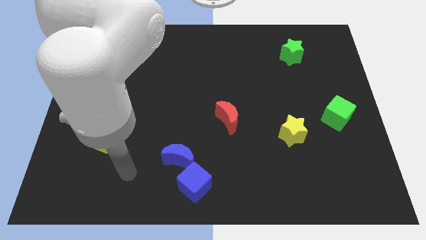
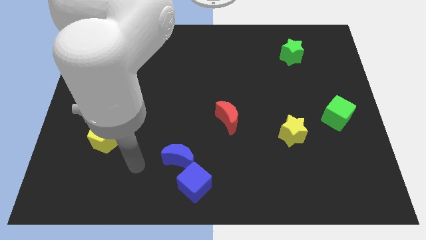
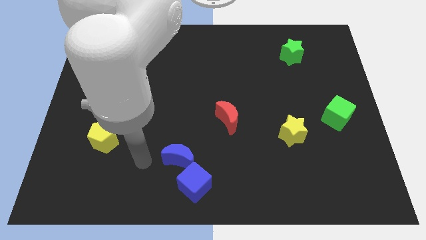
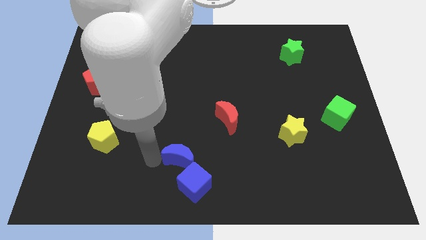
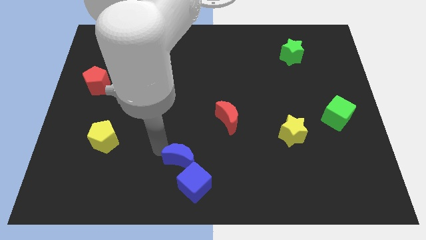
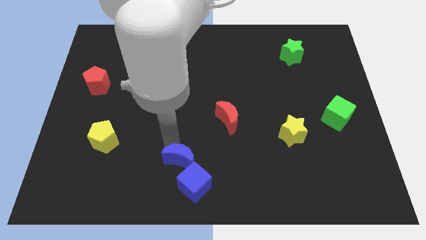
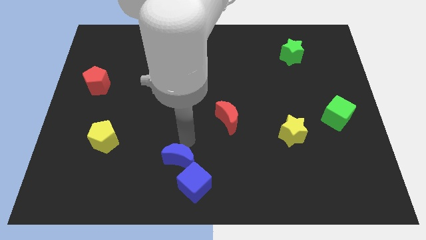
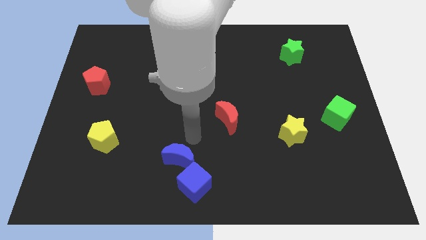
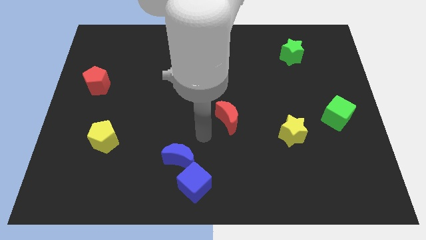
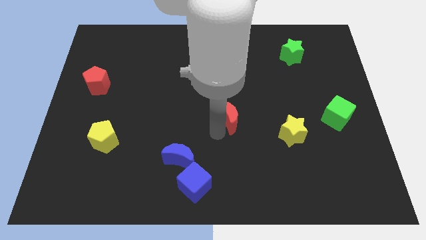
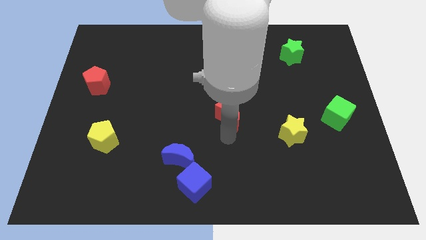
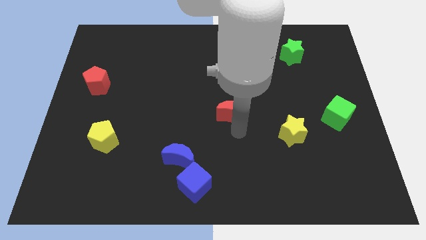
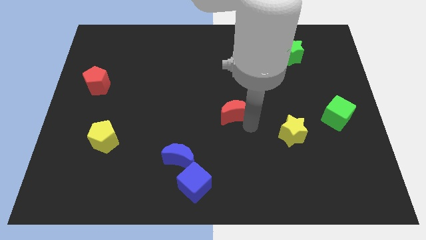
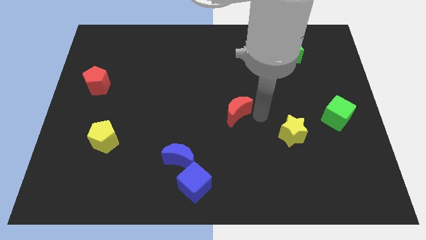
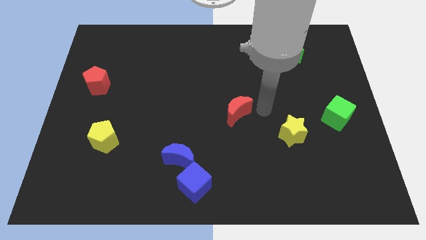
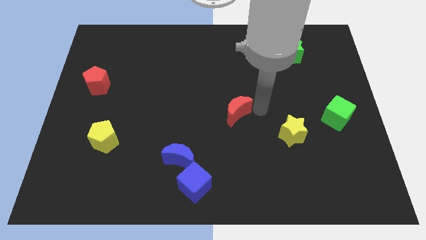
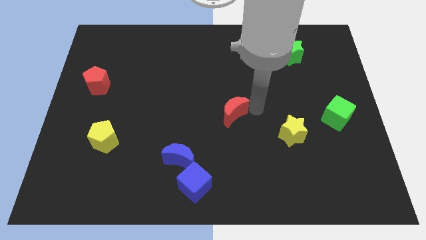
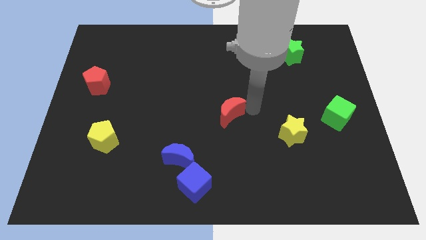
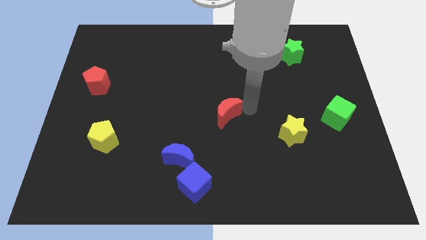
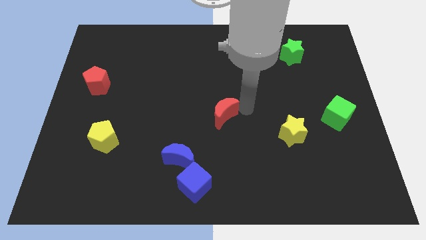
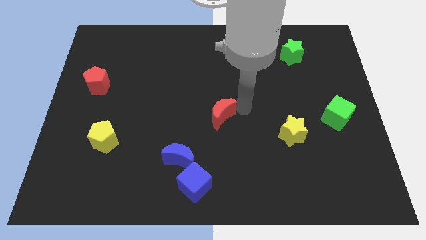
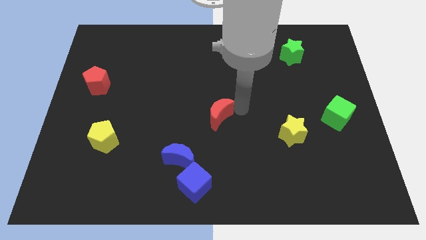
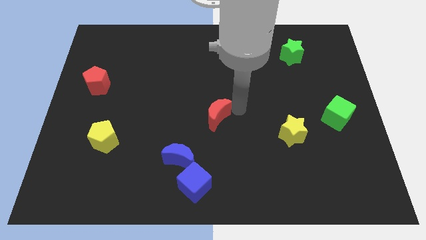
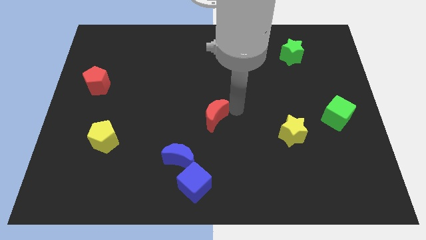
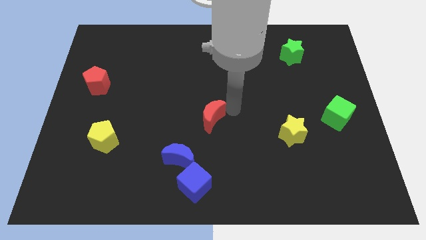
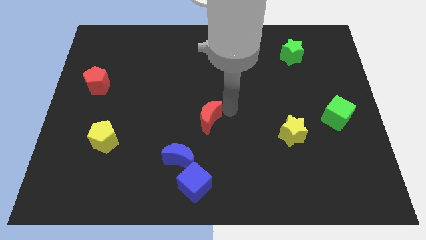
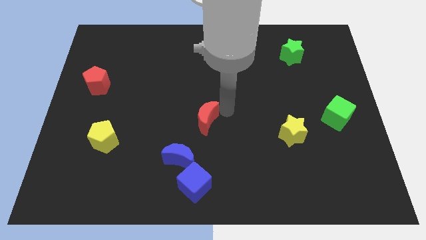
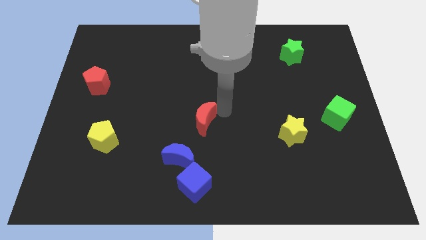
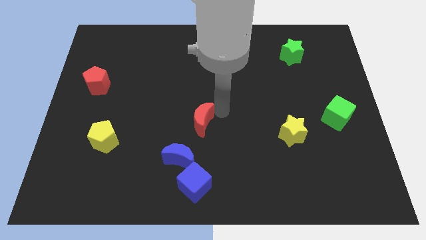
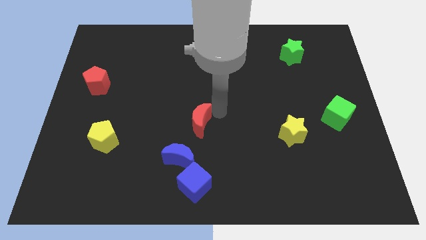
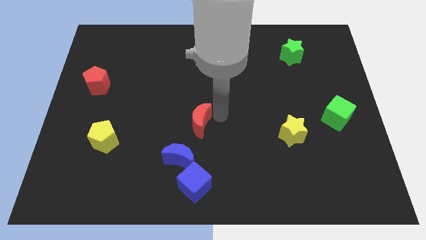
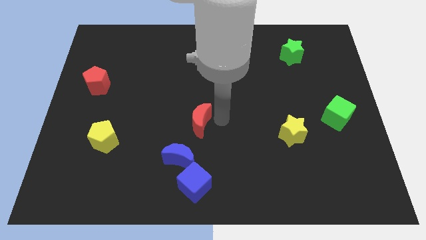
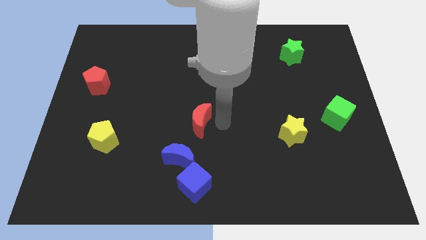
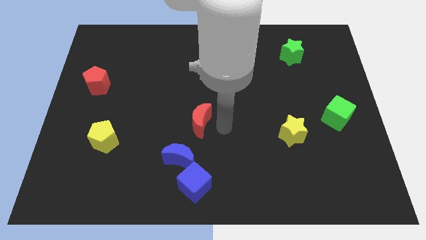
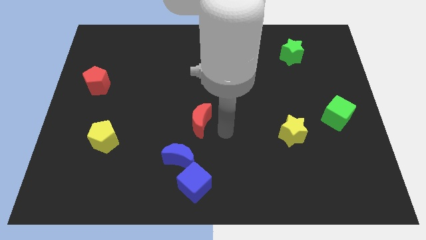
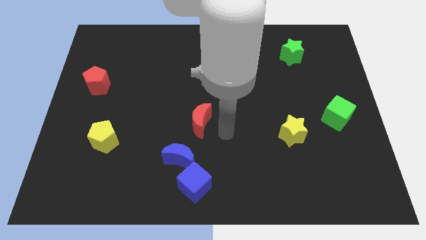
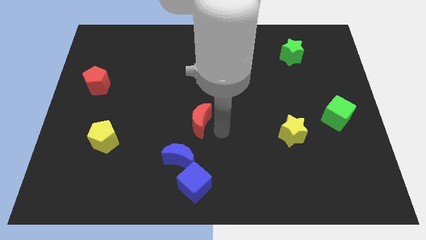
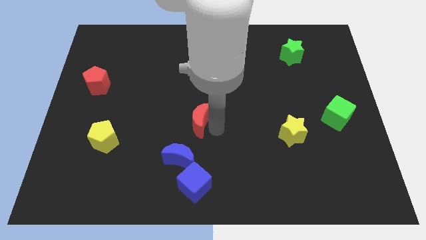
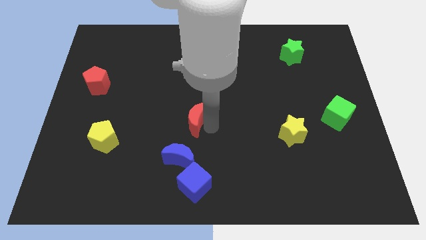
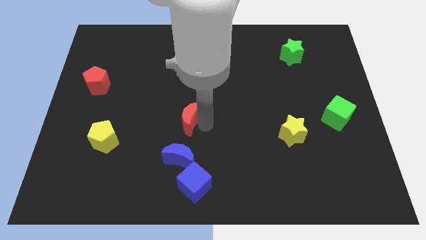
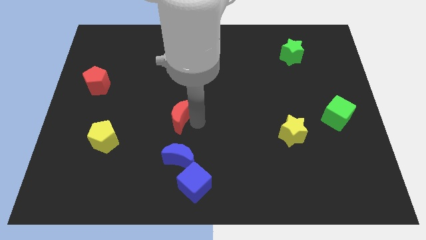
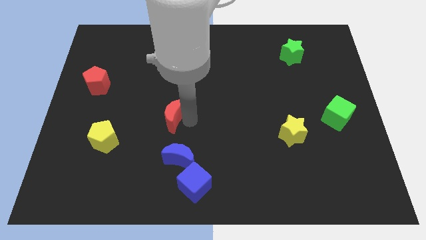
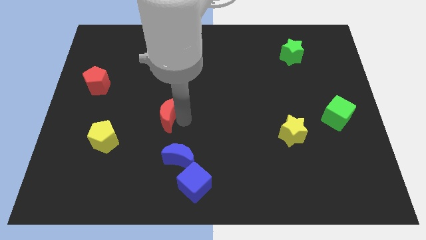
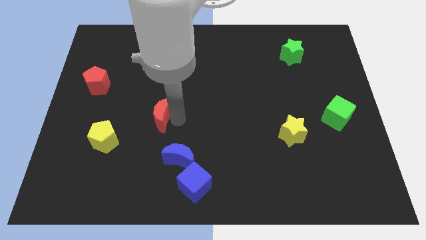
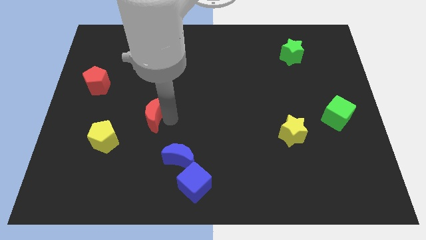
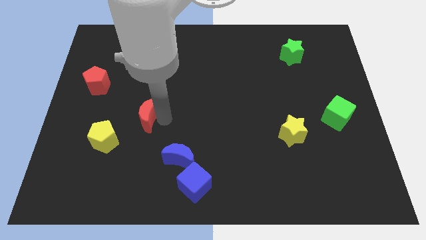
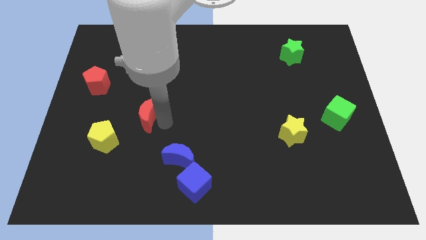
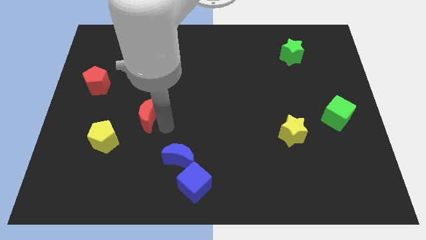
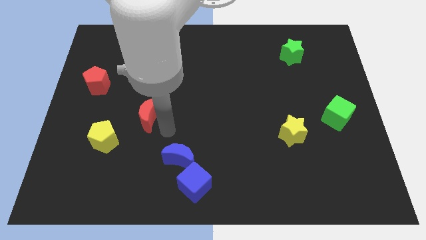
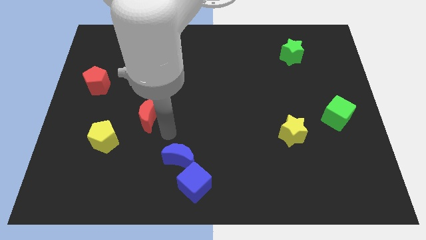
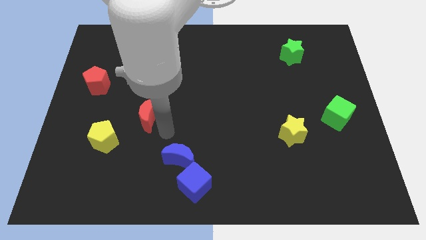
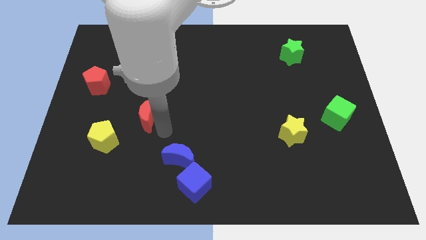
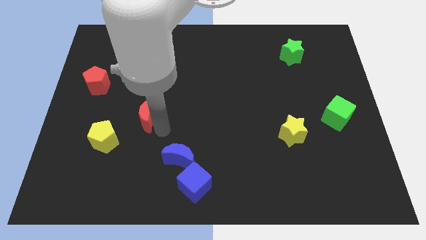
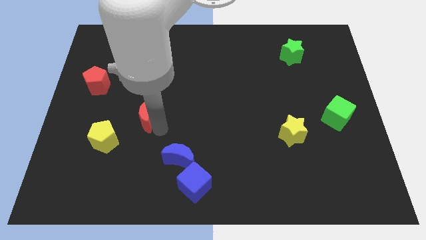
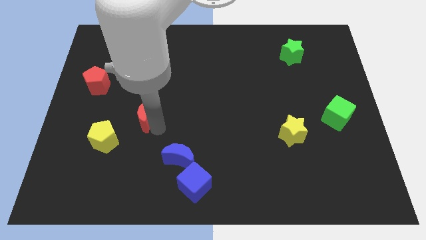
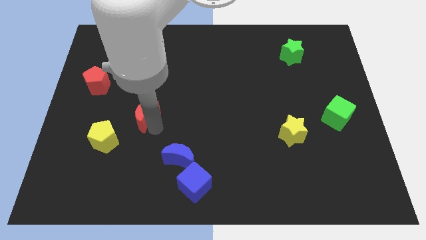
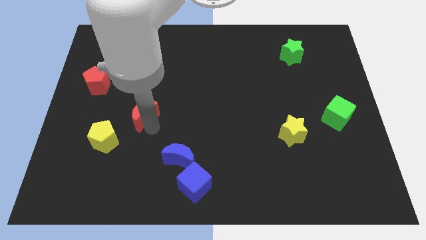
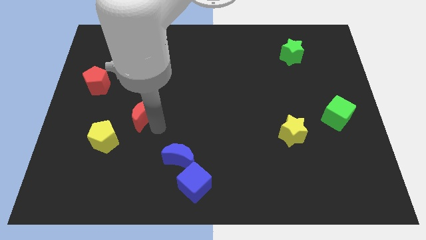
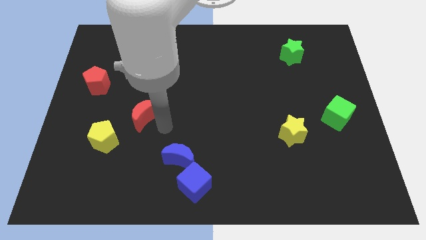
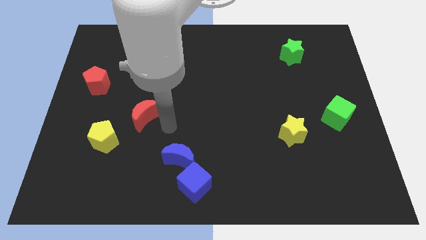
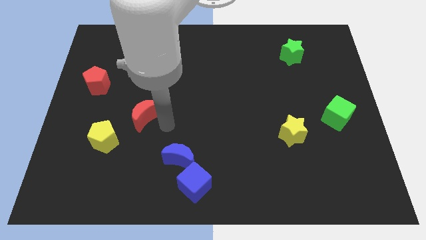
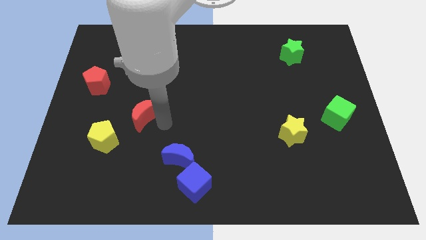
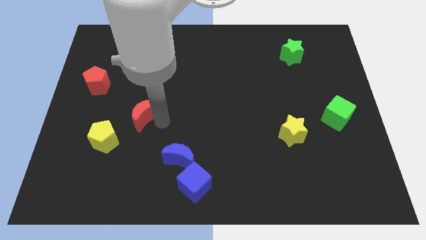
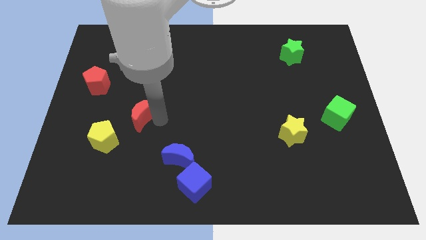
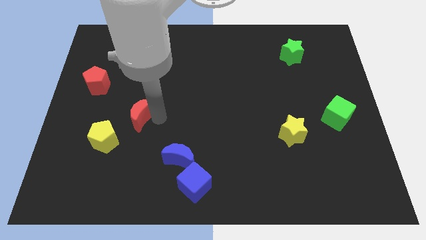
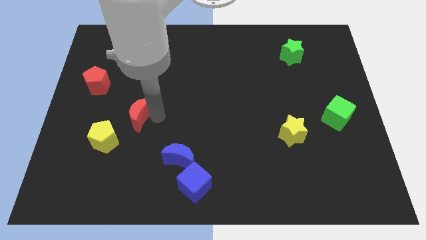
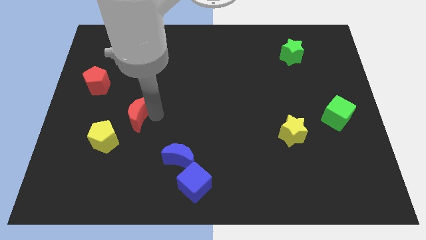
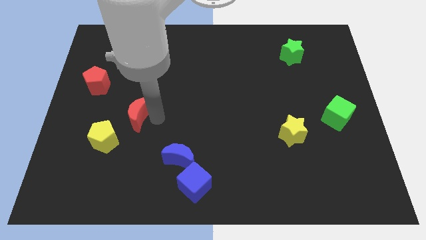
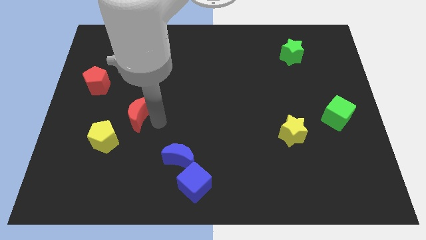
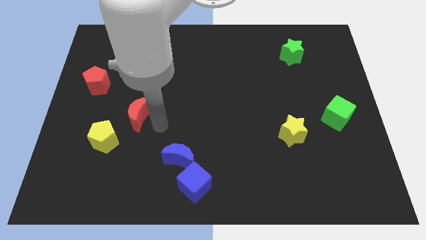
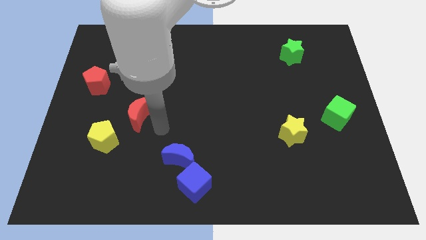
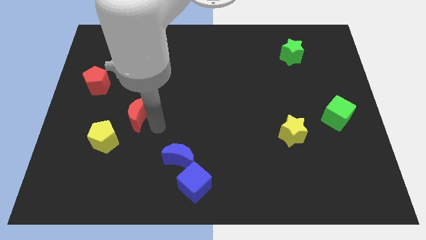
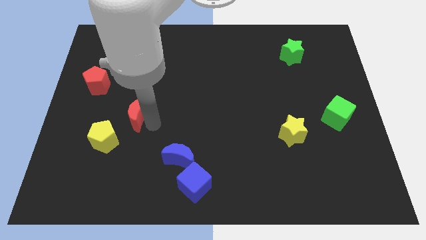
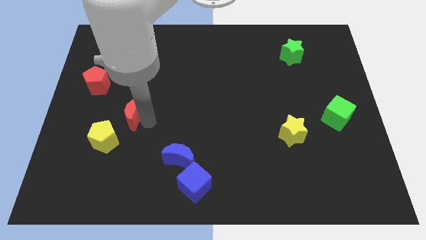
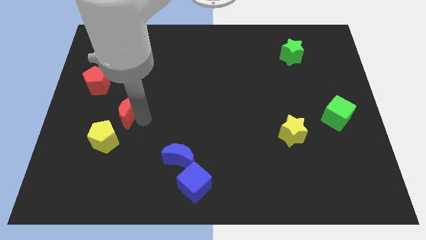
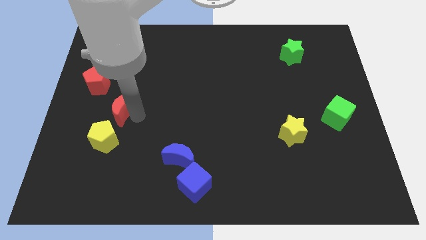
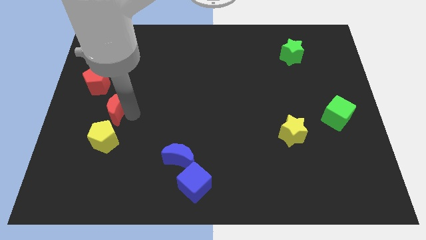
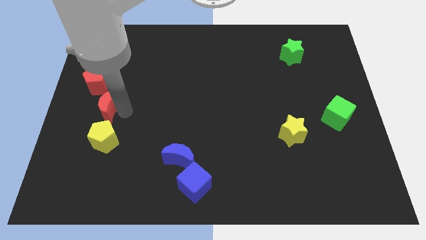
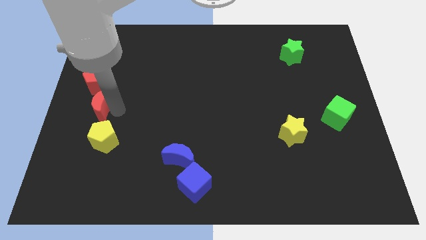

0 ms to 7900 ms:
push the red moon to the center left
